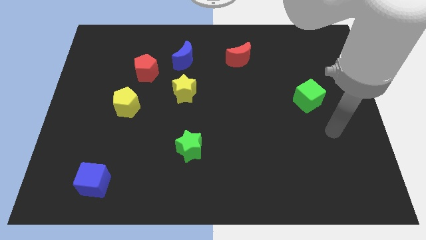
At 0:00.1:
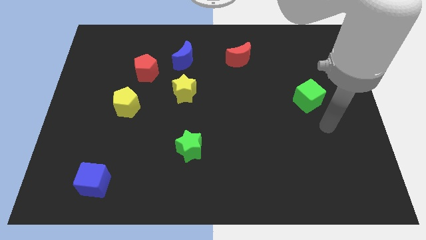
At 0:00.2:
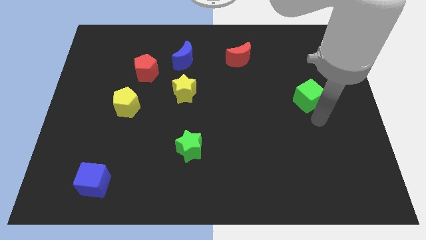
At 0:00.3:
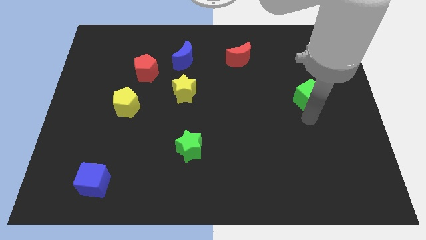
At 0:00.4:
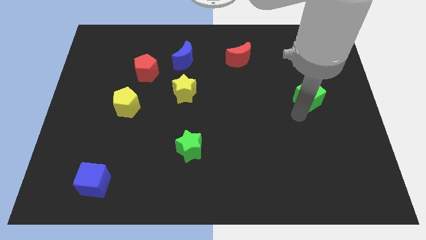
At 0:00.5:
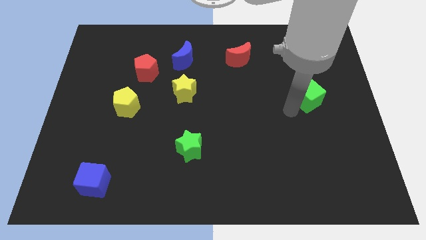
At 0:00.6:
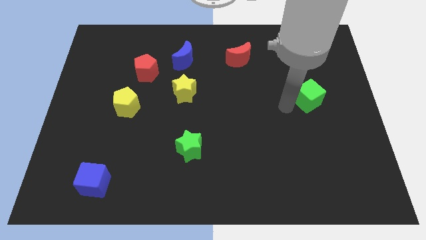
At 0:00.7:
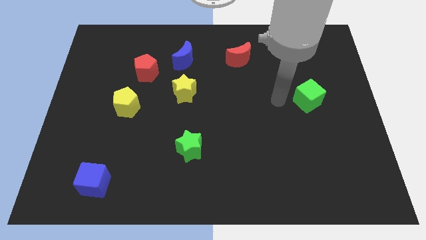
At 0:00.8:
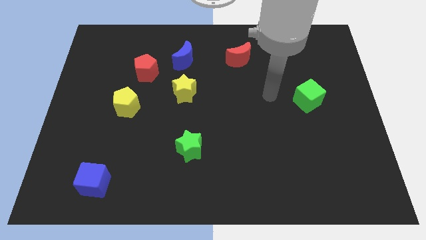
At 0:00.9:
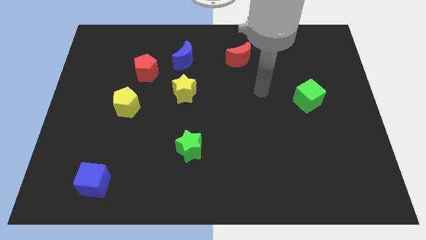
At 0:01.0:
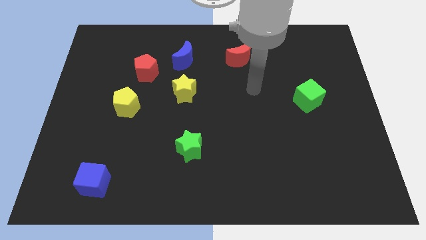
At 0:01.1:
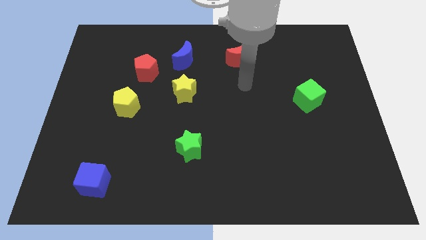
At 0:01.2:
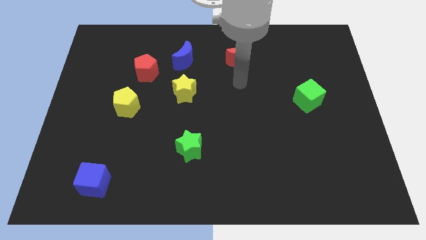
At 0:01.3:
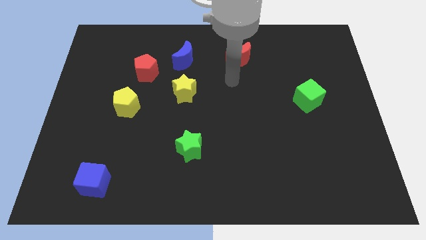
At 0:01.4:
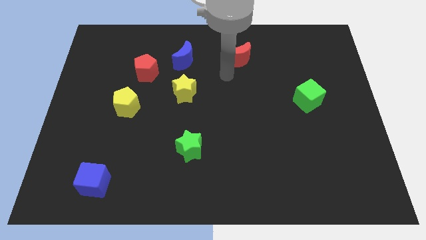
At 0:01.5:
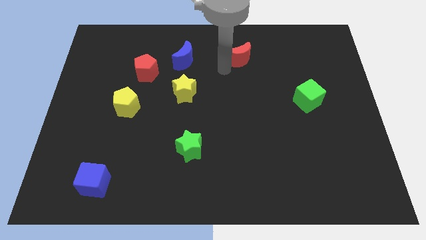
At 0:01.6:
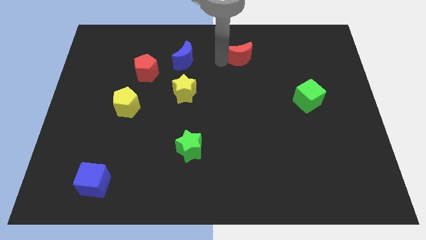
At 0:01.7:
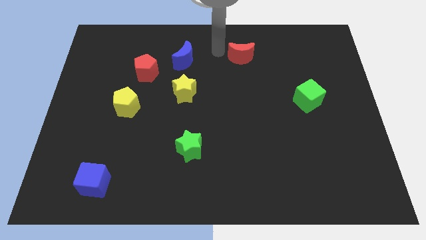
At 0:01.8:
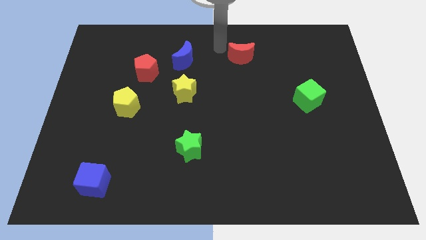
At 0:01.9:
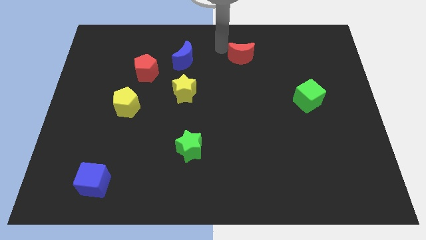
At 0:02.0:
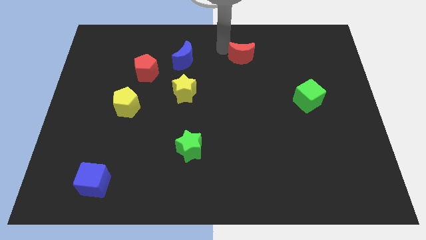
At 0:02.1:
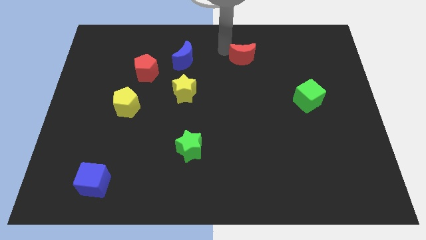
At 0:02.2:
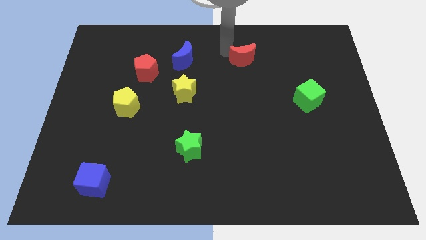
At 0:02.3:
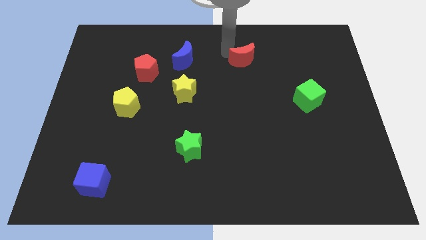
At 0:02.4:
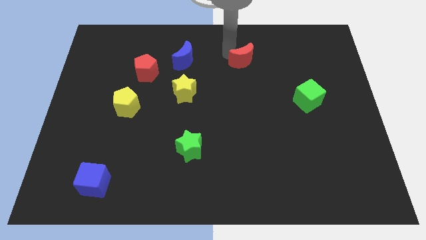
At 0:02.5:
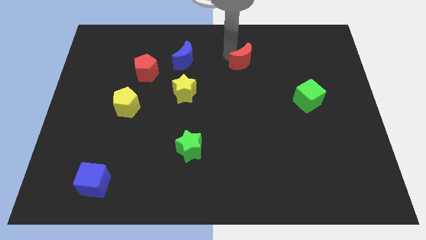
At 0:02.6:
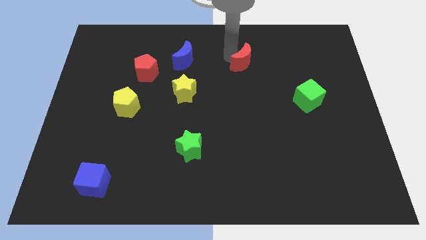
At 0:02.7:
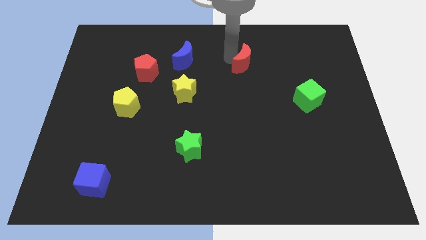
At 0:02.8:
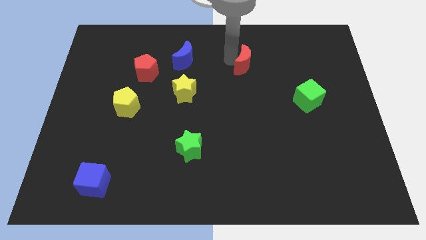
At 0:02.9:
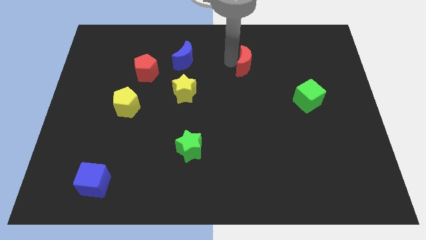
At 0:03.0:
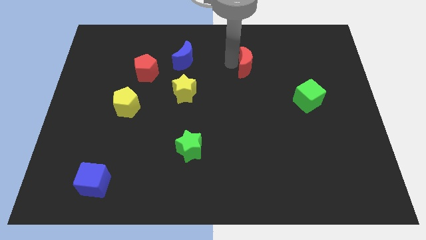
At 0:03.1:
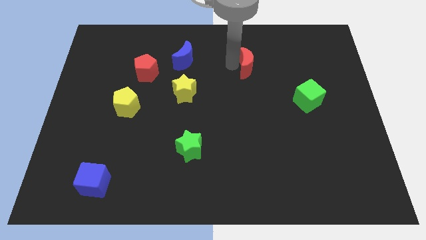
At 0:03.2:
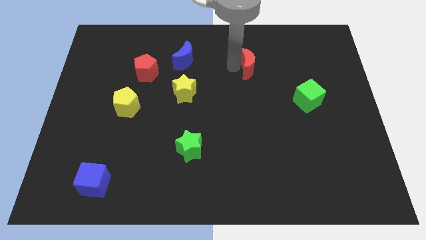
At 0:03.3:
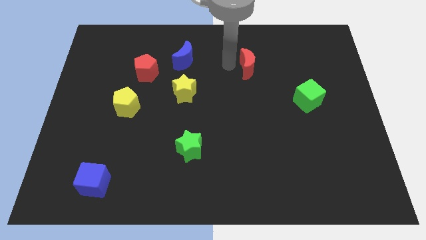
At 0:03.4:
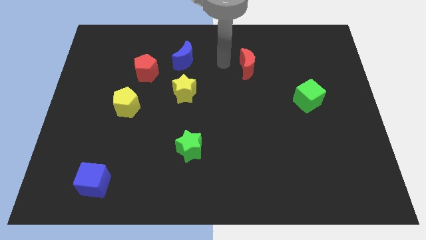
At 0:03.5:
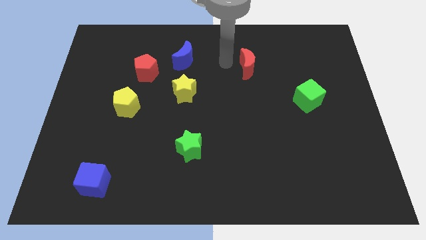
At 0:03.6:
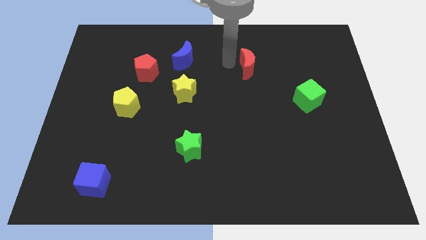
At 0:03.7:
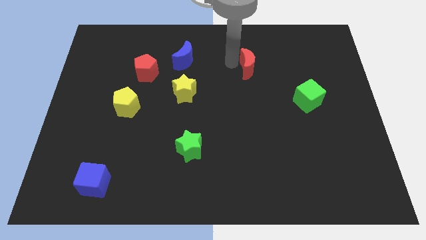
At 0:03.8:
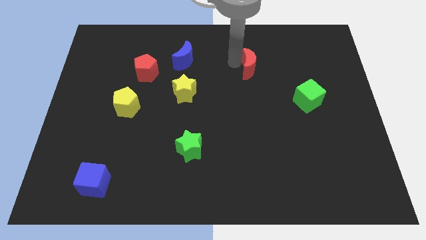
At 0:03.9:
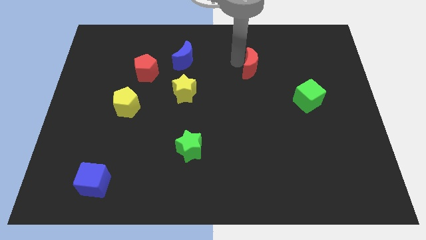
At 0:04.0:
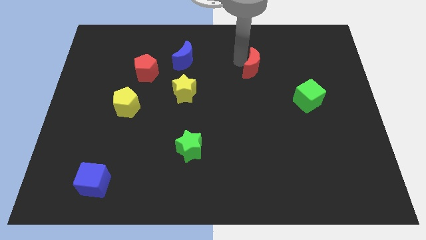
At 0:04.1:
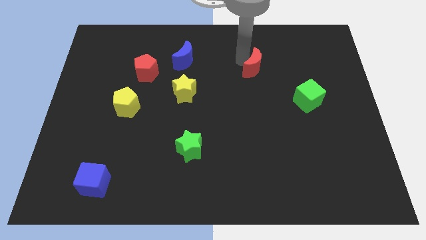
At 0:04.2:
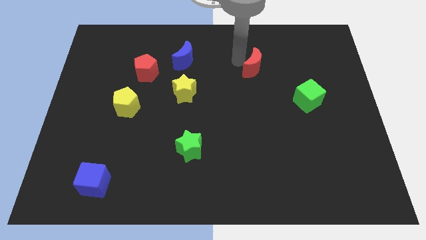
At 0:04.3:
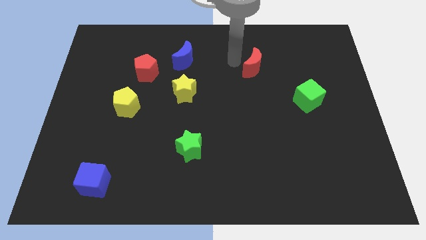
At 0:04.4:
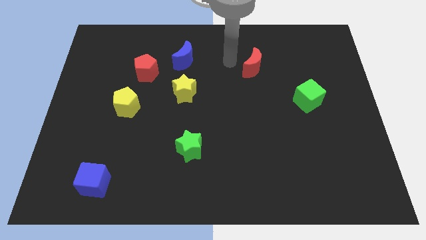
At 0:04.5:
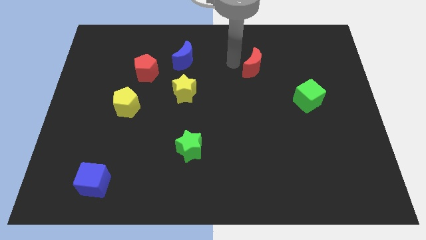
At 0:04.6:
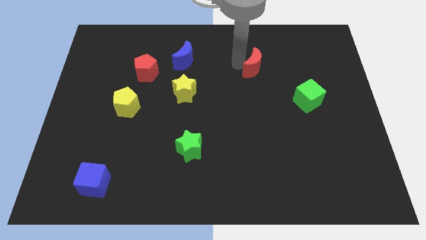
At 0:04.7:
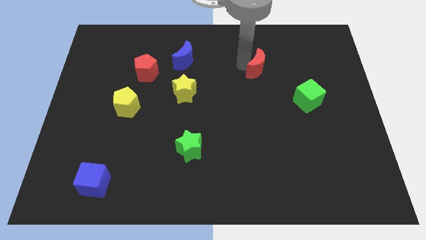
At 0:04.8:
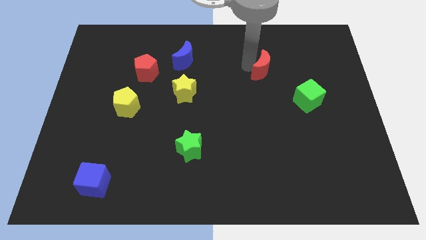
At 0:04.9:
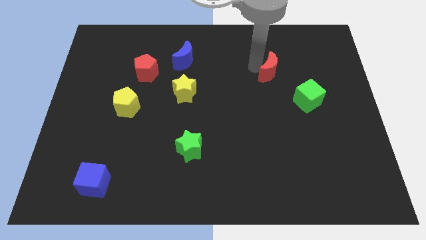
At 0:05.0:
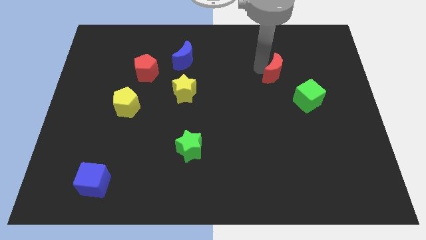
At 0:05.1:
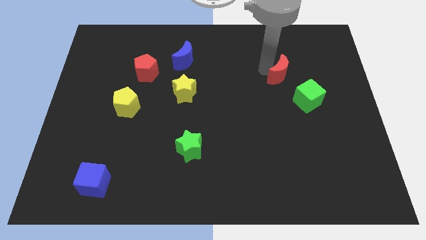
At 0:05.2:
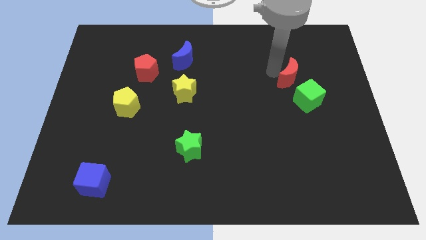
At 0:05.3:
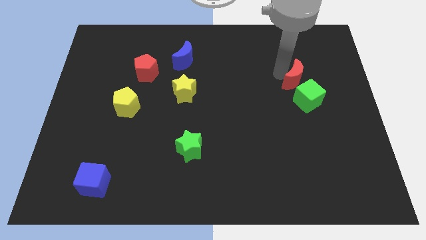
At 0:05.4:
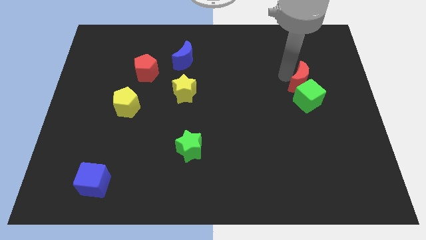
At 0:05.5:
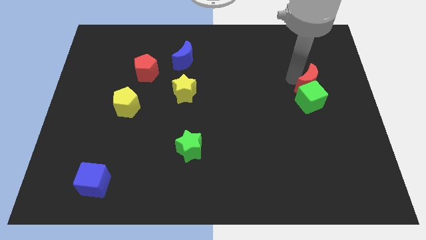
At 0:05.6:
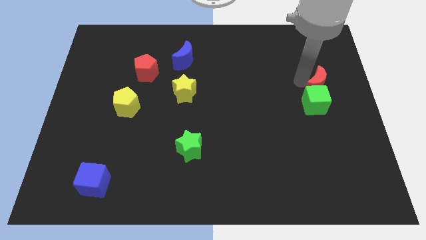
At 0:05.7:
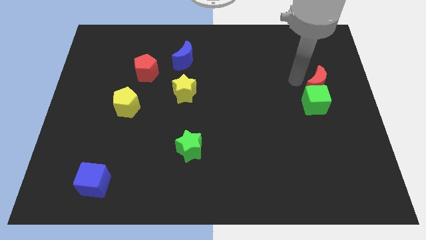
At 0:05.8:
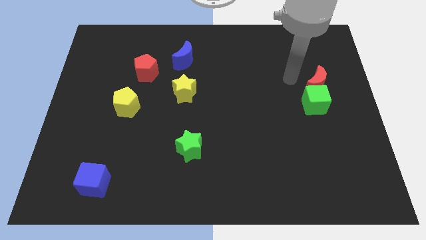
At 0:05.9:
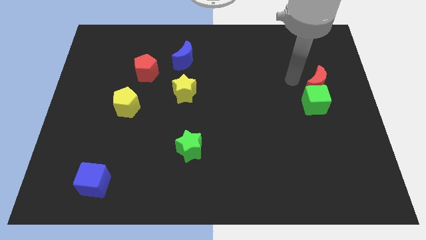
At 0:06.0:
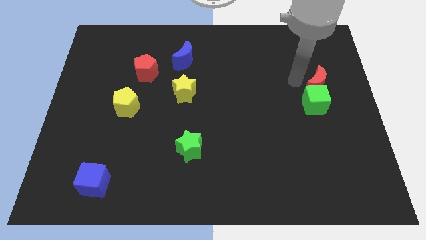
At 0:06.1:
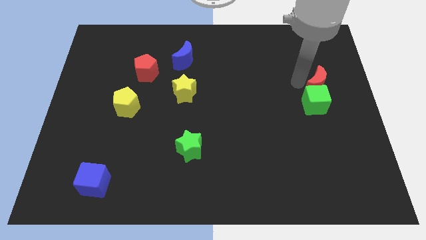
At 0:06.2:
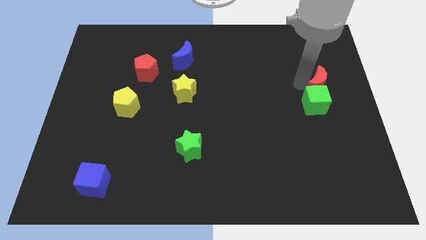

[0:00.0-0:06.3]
put the red moon to the center right

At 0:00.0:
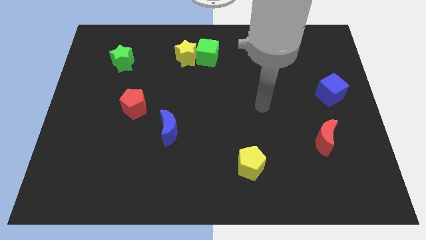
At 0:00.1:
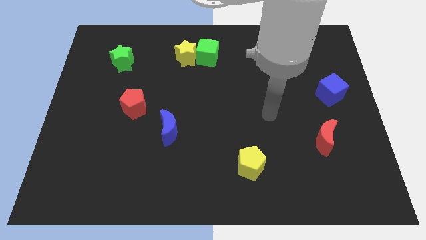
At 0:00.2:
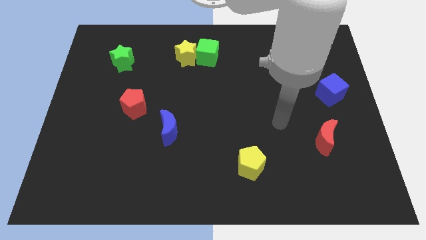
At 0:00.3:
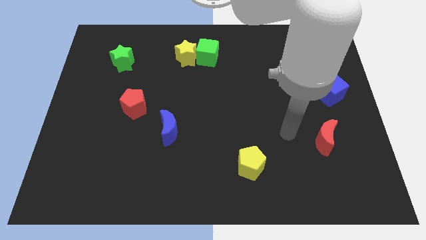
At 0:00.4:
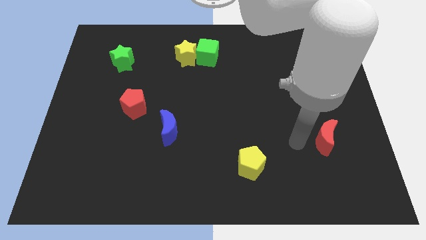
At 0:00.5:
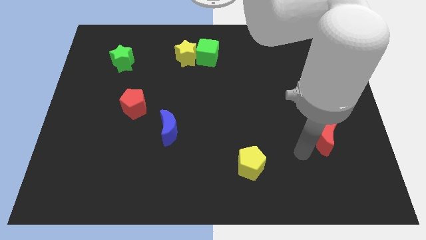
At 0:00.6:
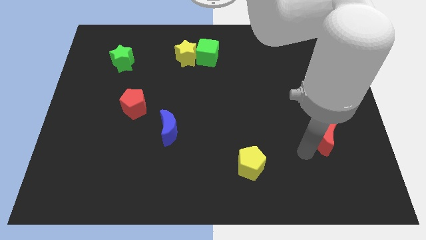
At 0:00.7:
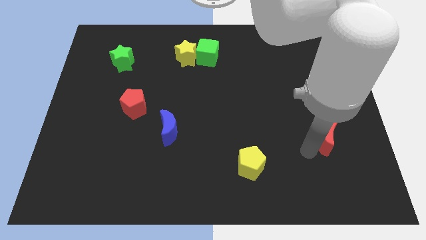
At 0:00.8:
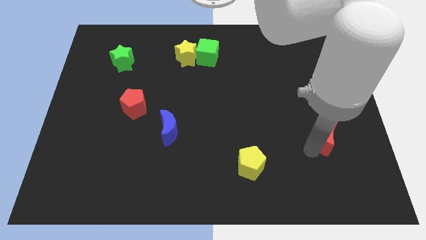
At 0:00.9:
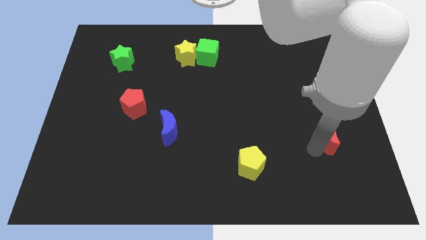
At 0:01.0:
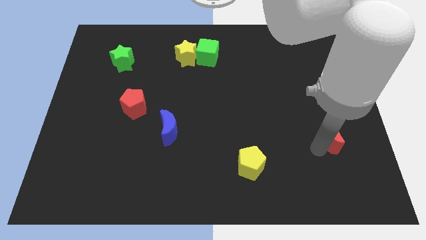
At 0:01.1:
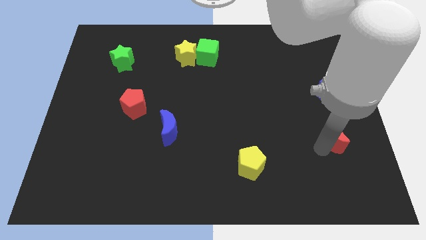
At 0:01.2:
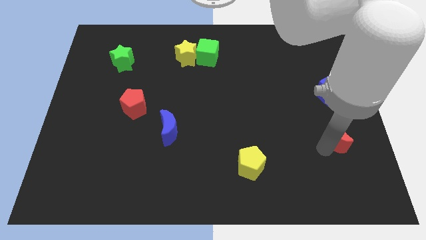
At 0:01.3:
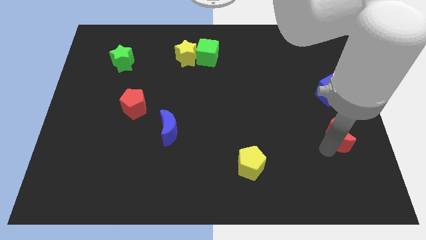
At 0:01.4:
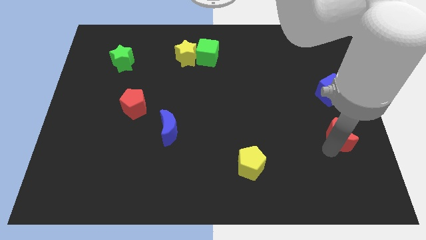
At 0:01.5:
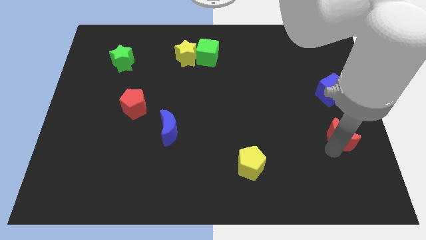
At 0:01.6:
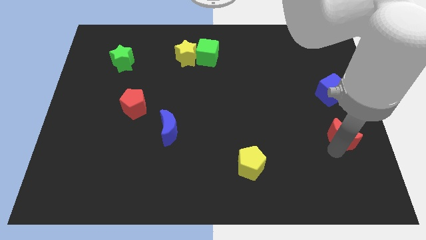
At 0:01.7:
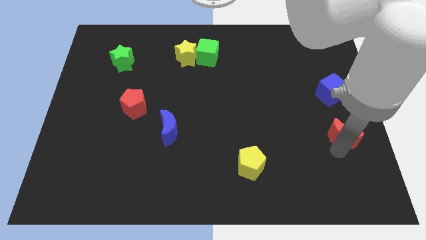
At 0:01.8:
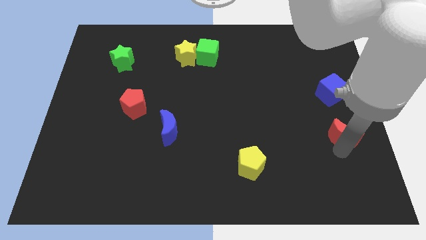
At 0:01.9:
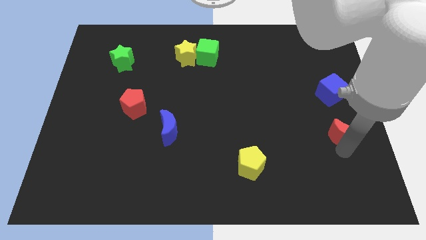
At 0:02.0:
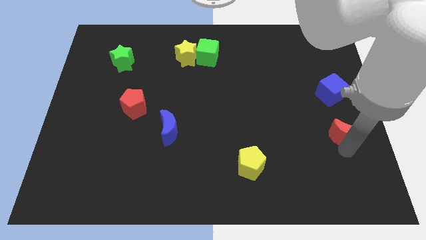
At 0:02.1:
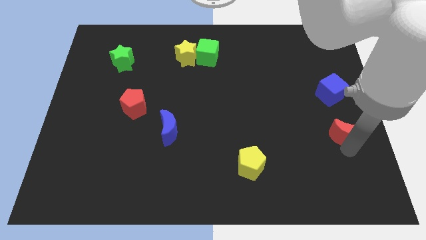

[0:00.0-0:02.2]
slide the red moon to the right side of the board
